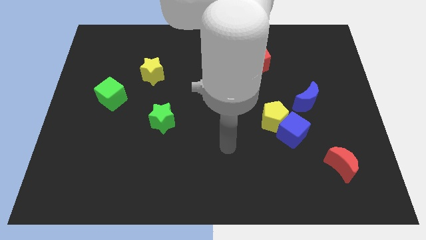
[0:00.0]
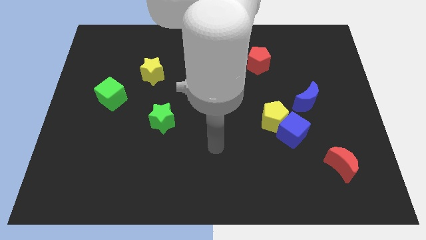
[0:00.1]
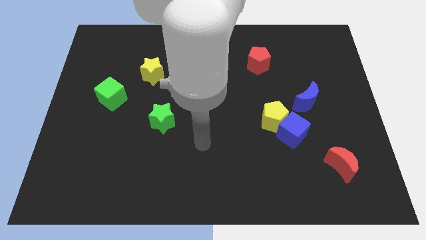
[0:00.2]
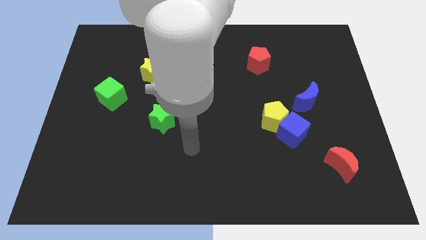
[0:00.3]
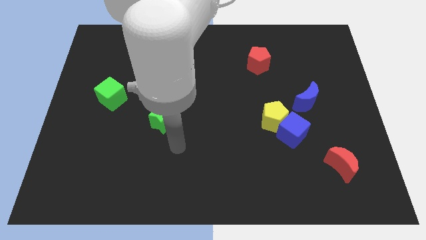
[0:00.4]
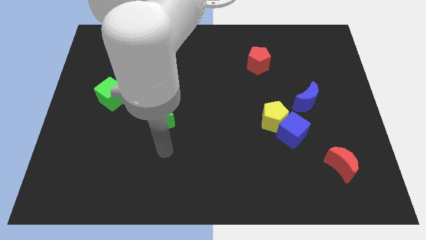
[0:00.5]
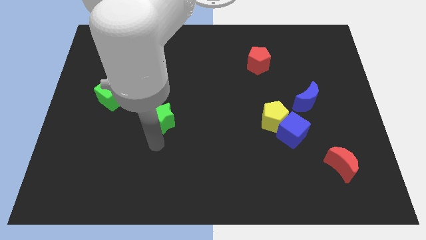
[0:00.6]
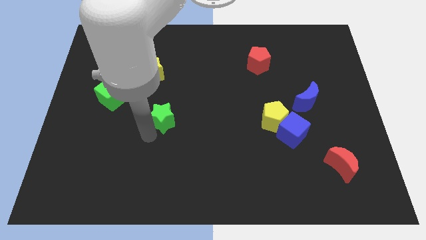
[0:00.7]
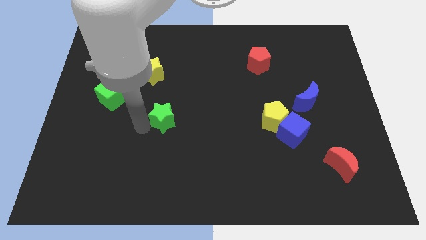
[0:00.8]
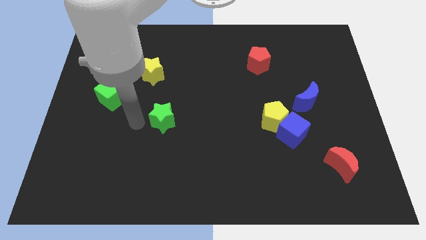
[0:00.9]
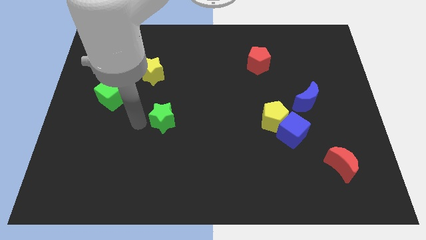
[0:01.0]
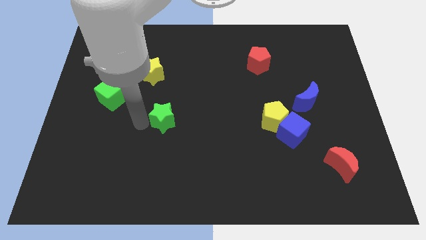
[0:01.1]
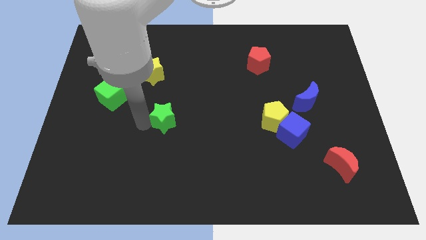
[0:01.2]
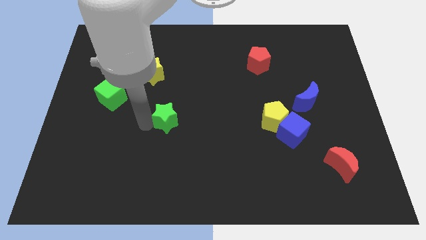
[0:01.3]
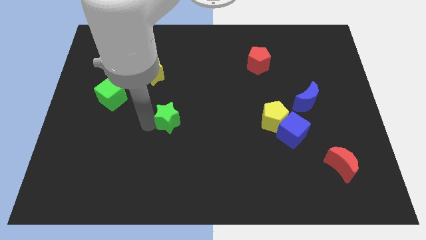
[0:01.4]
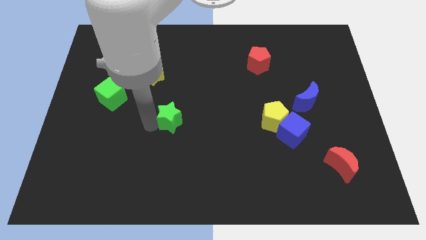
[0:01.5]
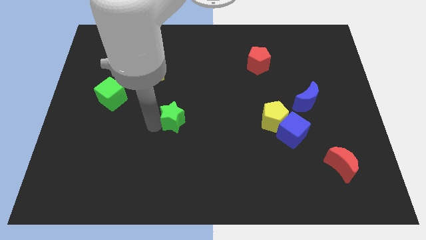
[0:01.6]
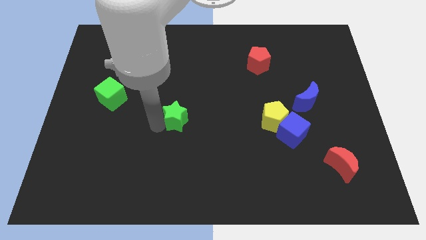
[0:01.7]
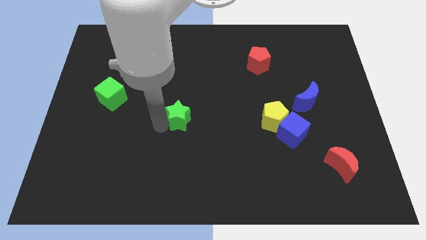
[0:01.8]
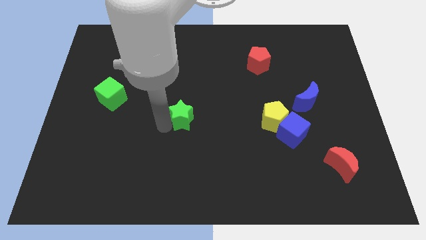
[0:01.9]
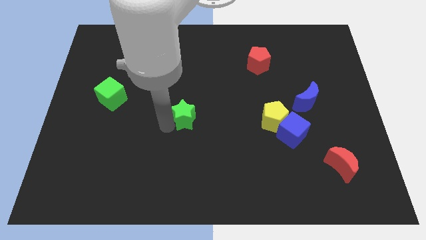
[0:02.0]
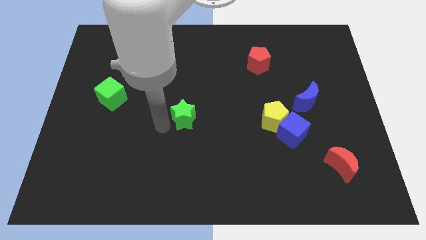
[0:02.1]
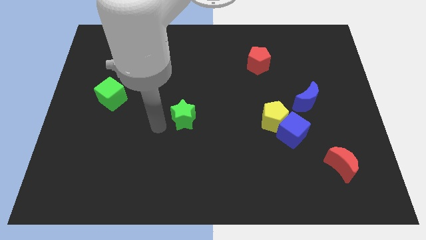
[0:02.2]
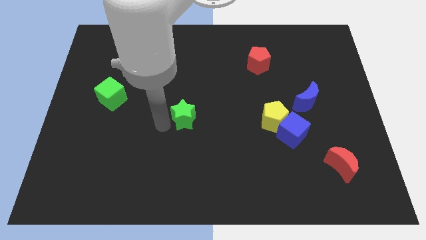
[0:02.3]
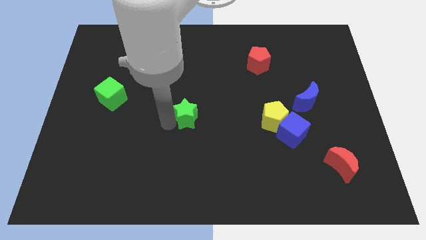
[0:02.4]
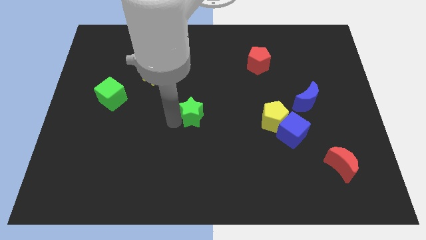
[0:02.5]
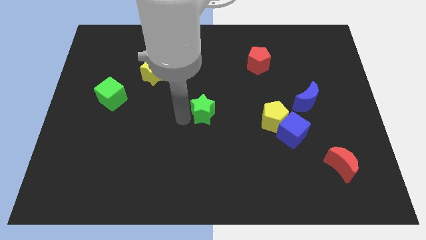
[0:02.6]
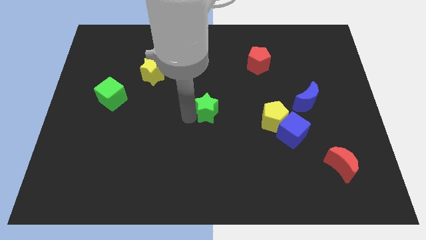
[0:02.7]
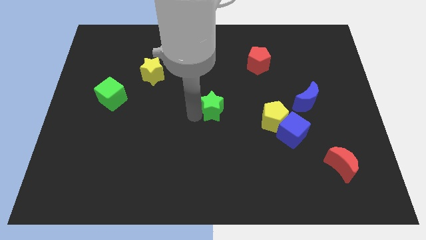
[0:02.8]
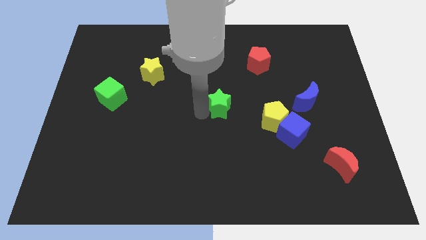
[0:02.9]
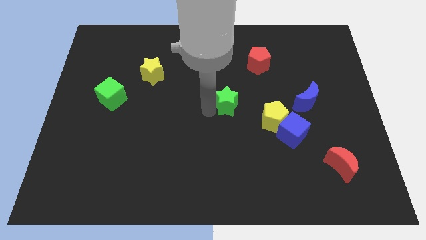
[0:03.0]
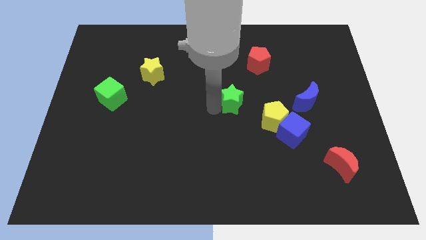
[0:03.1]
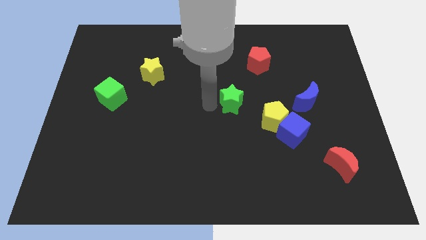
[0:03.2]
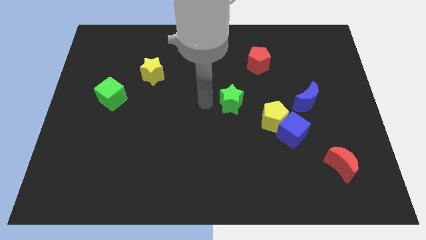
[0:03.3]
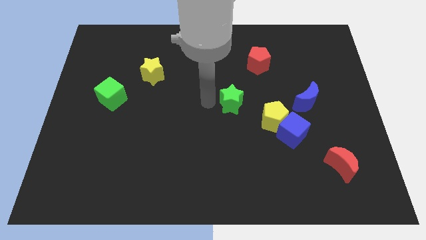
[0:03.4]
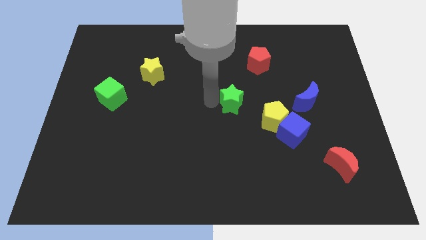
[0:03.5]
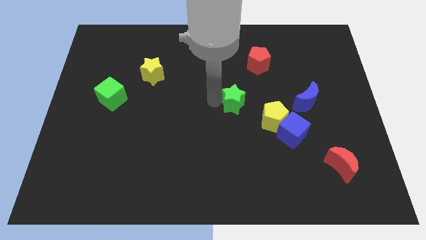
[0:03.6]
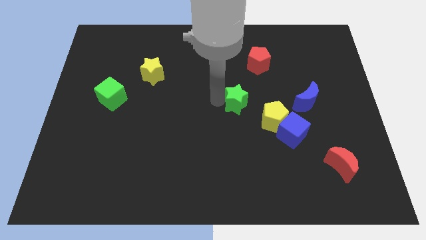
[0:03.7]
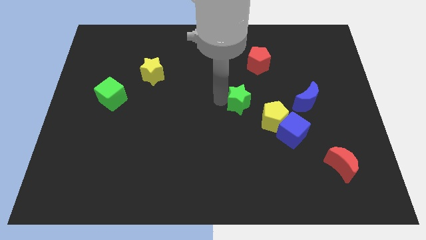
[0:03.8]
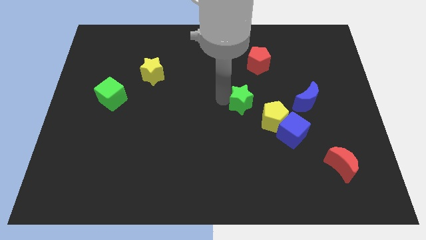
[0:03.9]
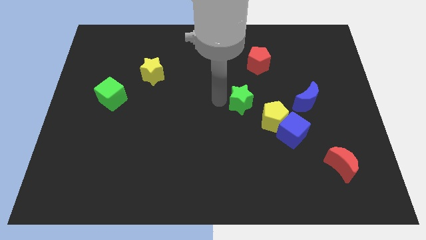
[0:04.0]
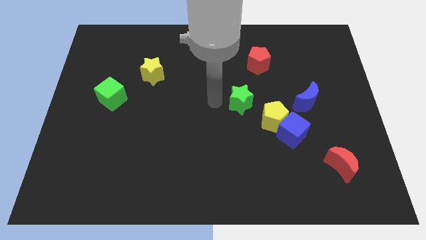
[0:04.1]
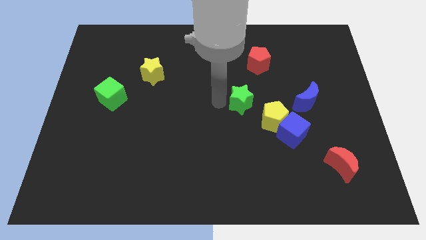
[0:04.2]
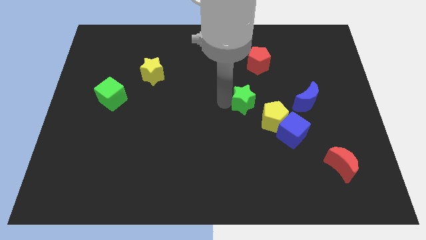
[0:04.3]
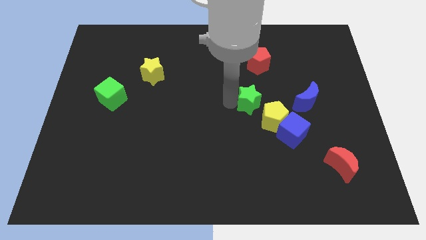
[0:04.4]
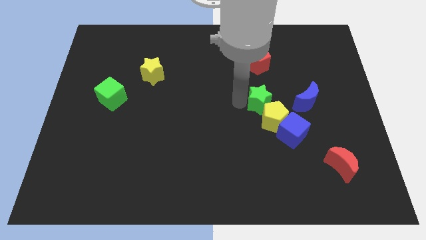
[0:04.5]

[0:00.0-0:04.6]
slide the green star right

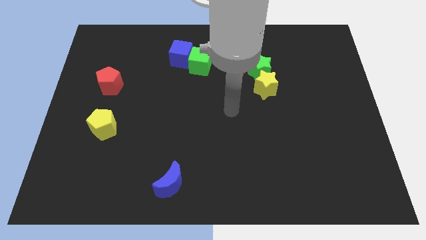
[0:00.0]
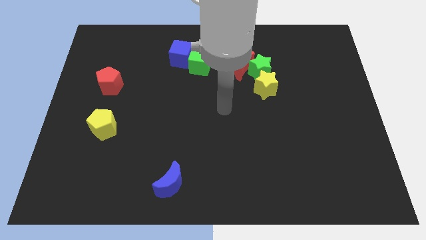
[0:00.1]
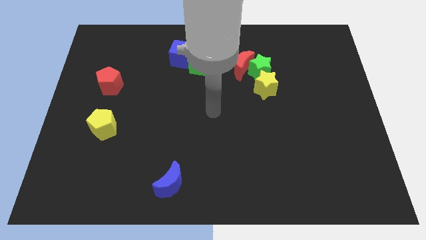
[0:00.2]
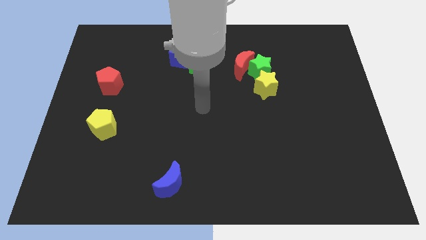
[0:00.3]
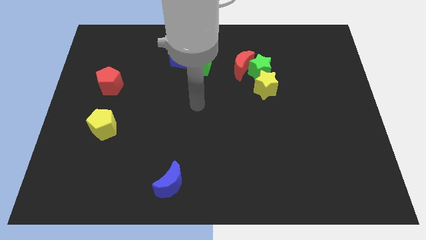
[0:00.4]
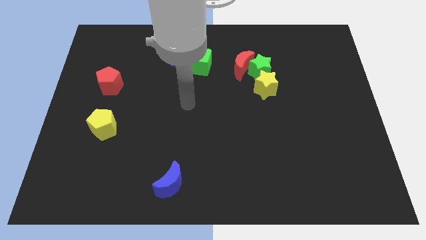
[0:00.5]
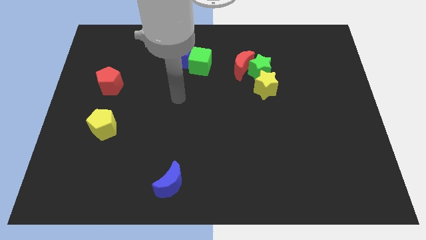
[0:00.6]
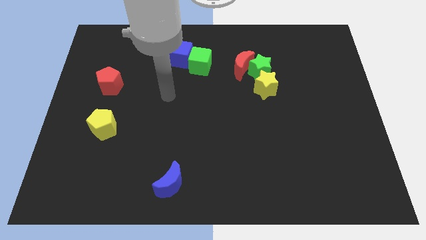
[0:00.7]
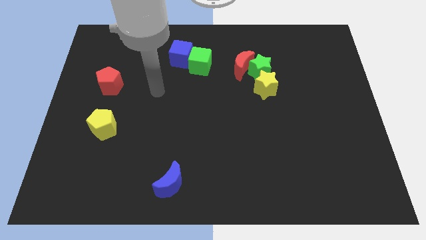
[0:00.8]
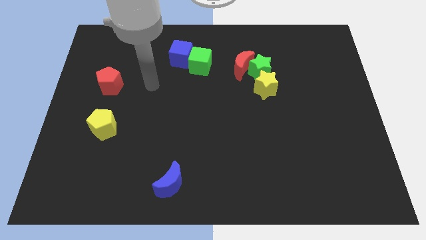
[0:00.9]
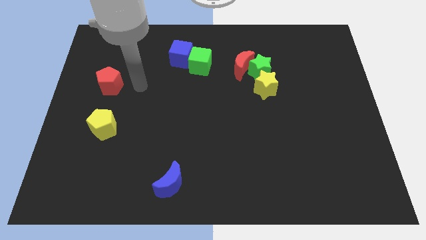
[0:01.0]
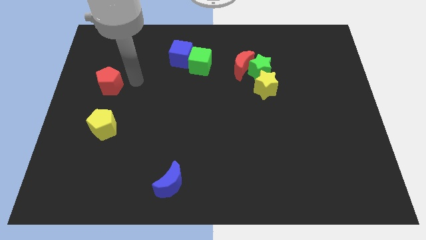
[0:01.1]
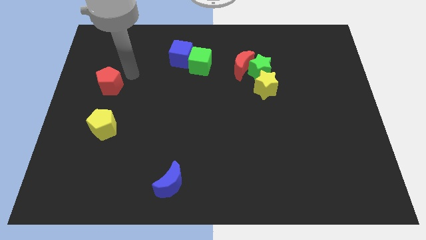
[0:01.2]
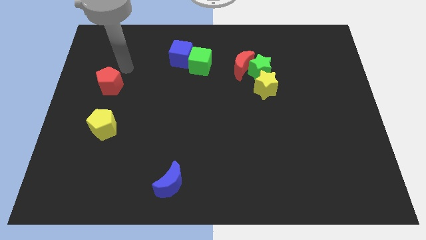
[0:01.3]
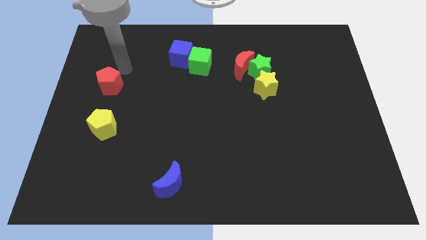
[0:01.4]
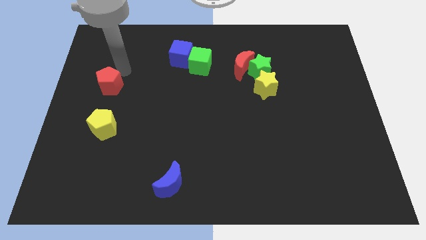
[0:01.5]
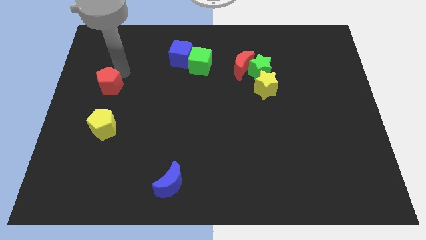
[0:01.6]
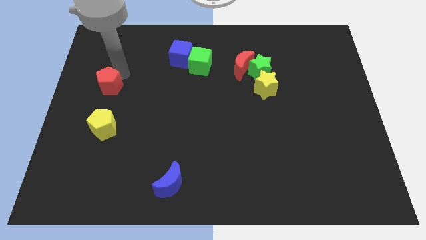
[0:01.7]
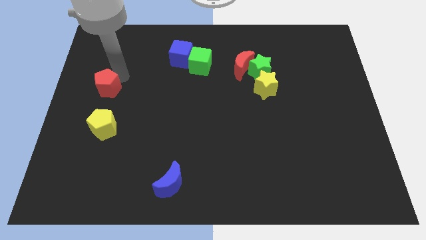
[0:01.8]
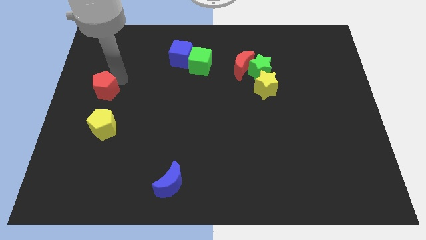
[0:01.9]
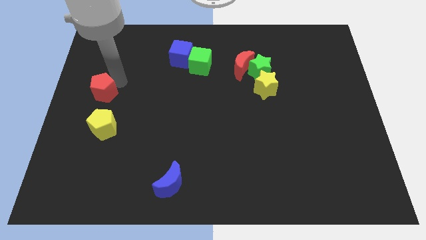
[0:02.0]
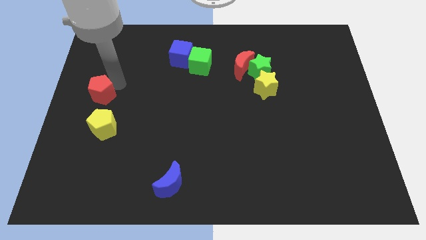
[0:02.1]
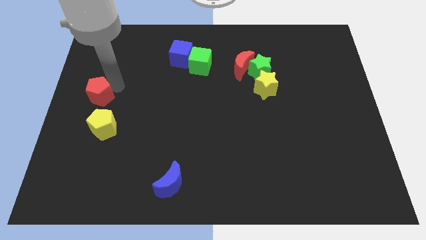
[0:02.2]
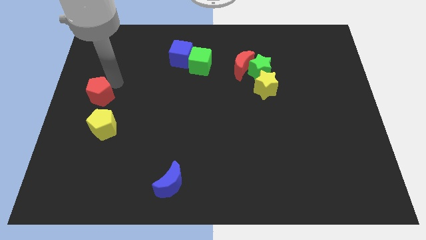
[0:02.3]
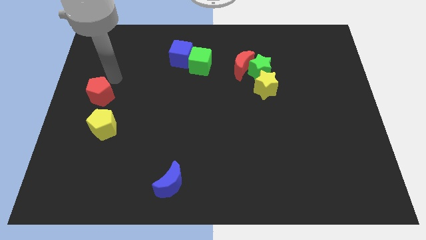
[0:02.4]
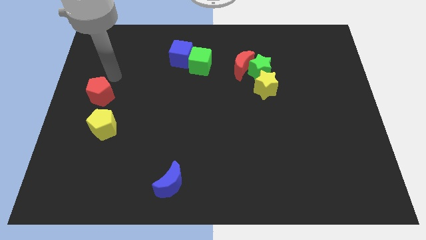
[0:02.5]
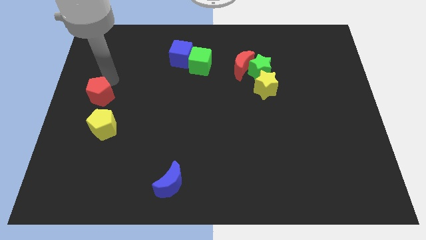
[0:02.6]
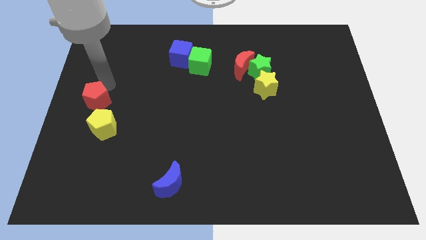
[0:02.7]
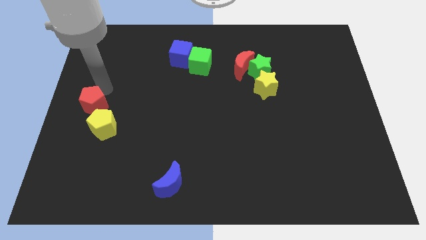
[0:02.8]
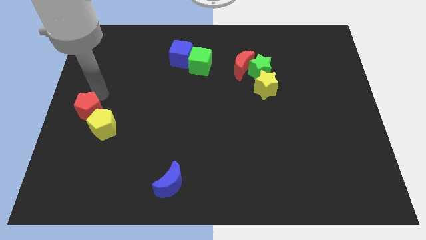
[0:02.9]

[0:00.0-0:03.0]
push the red pentagon a little bit downwards

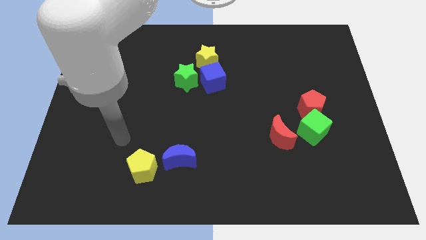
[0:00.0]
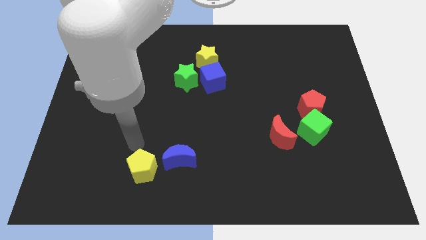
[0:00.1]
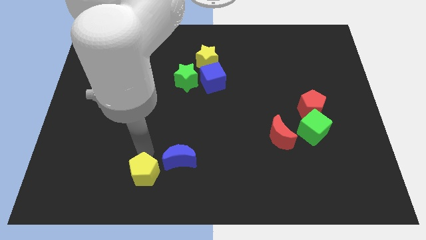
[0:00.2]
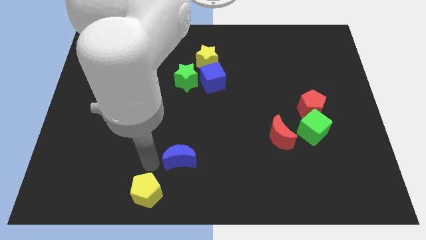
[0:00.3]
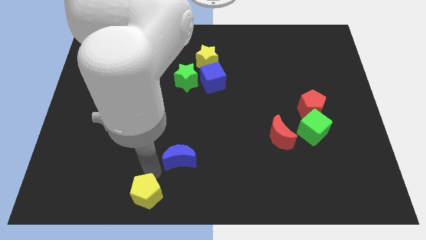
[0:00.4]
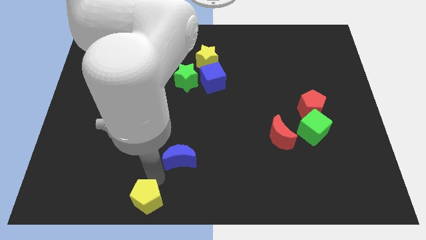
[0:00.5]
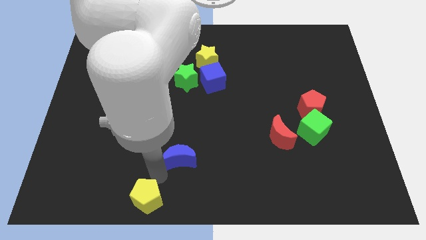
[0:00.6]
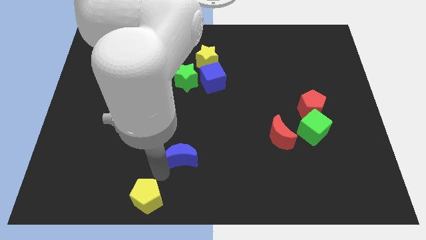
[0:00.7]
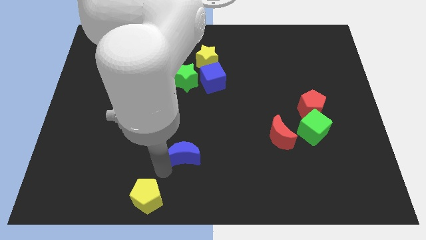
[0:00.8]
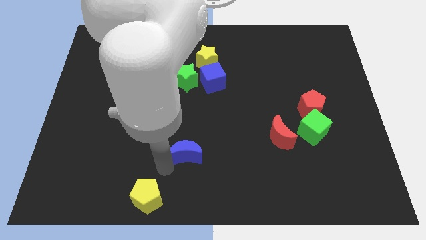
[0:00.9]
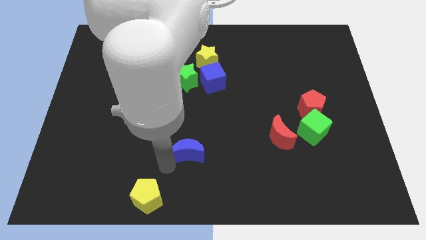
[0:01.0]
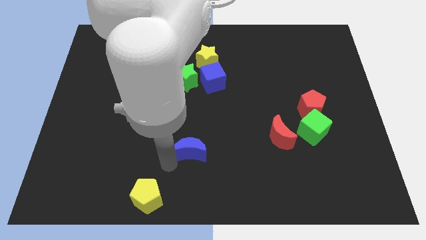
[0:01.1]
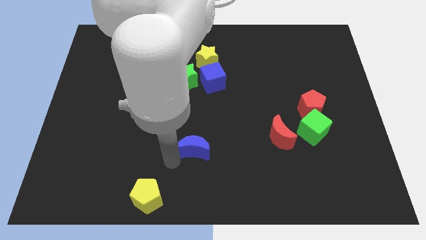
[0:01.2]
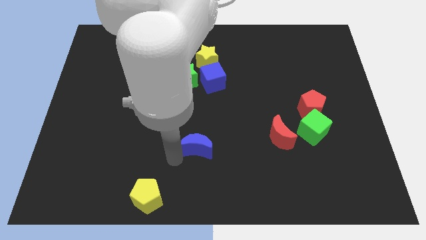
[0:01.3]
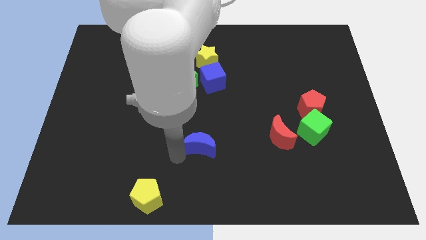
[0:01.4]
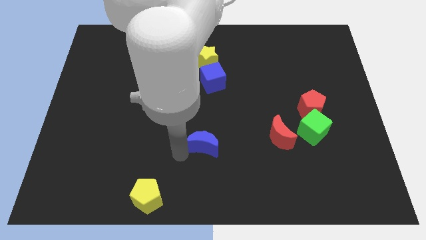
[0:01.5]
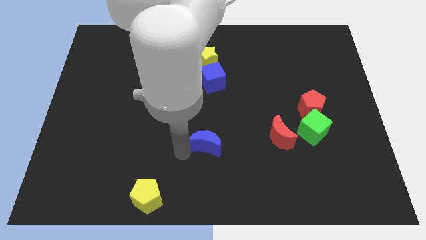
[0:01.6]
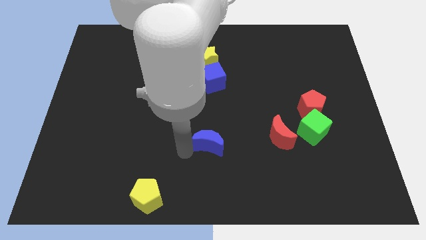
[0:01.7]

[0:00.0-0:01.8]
slightly slide the blue moon up and then right
